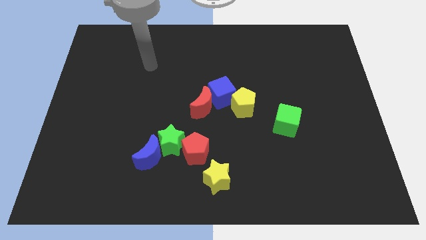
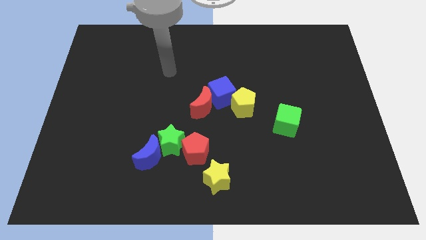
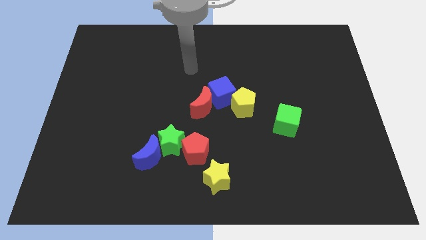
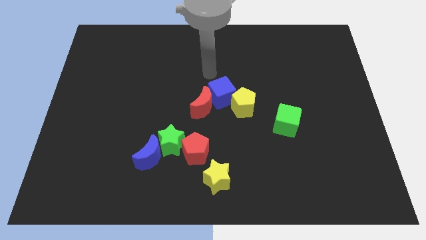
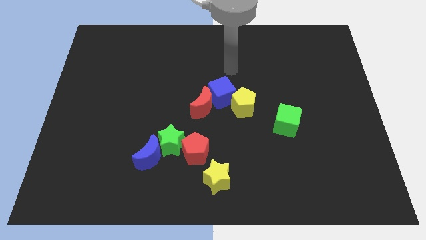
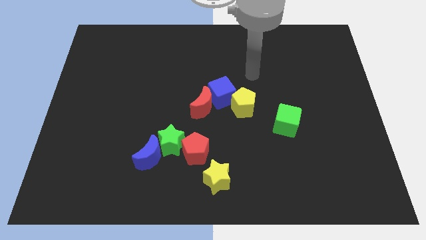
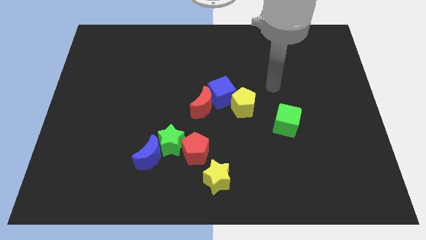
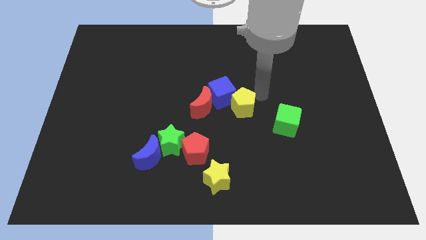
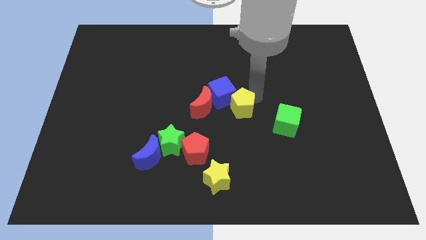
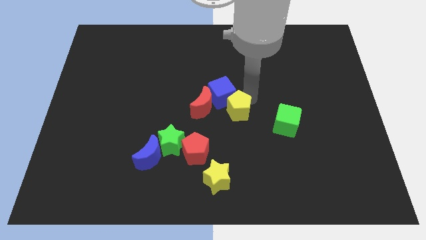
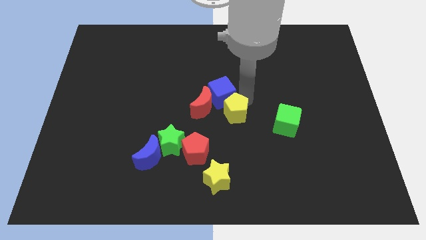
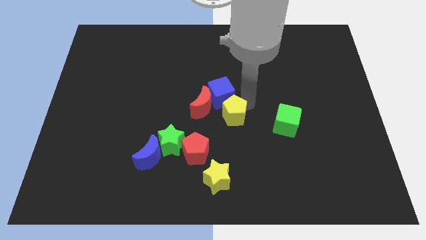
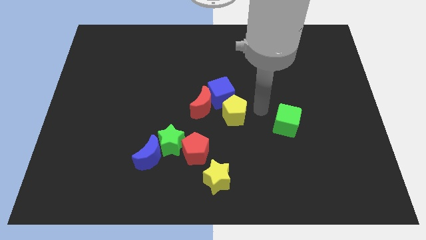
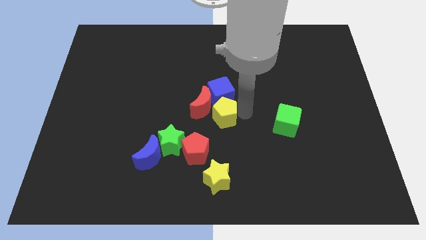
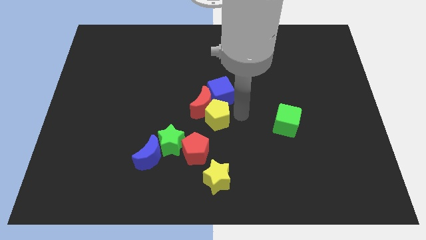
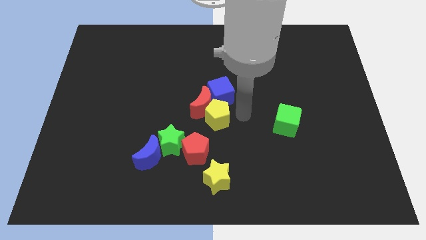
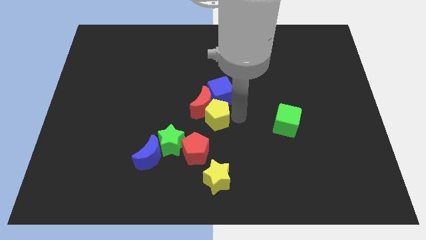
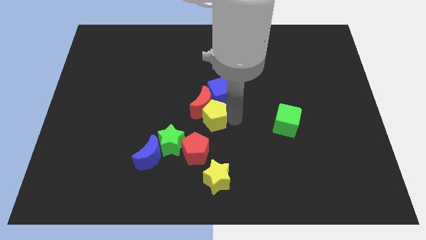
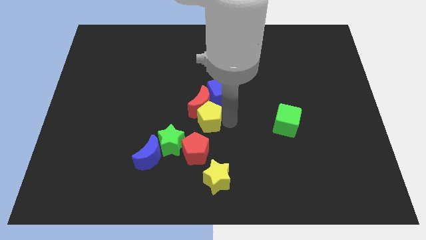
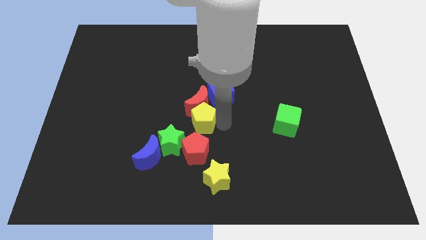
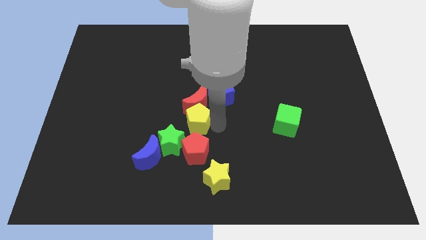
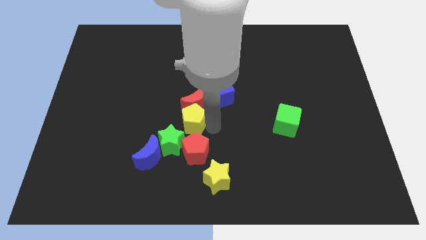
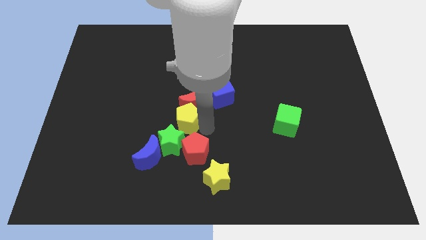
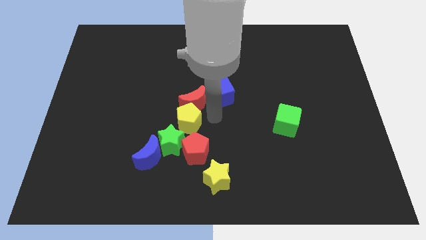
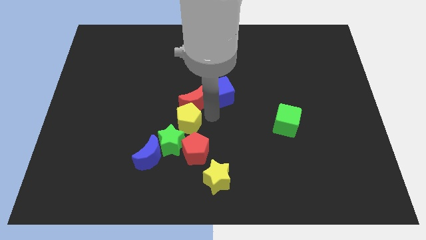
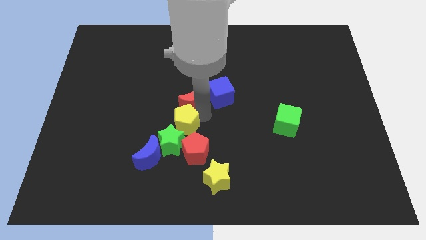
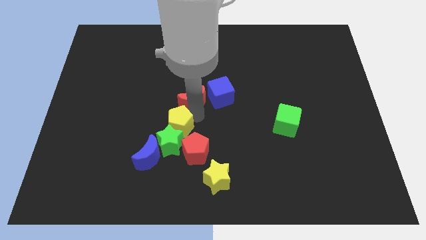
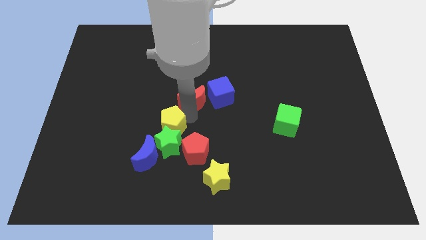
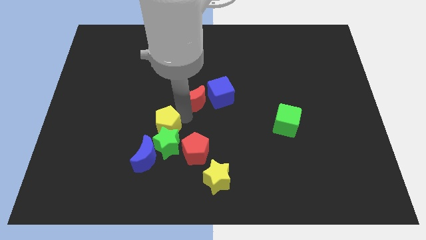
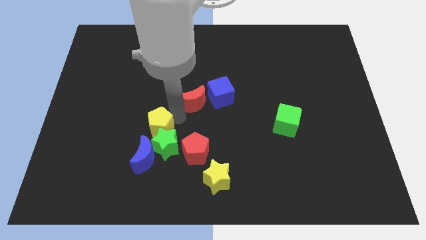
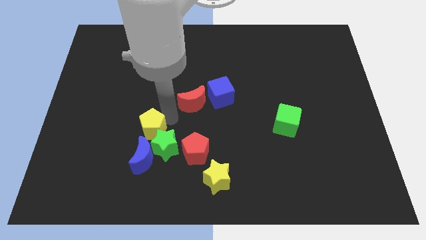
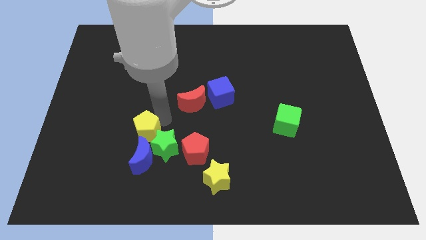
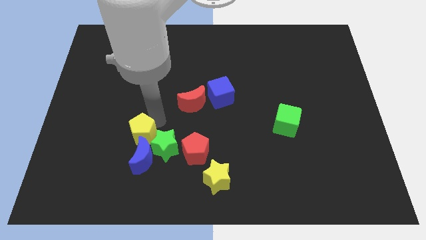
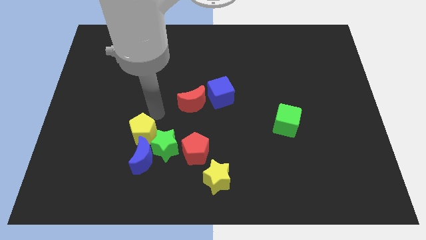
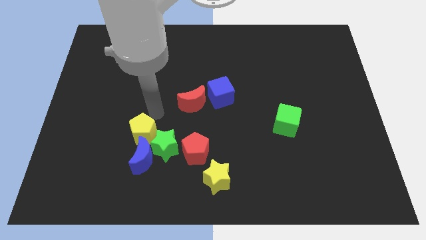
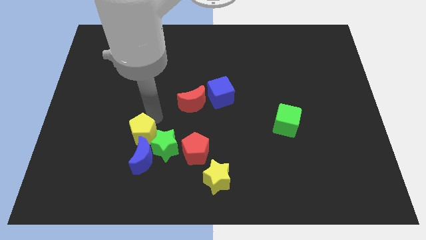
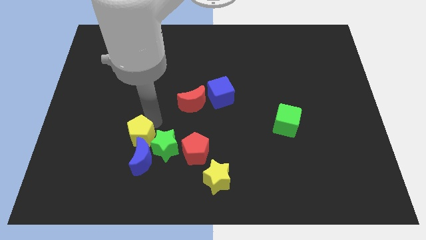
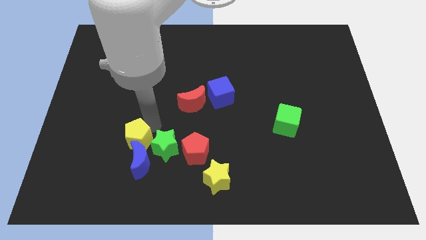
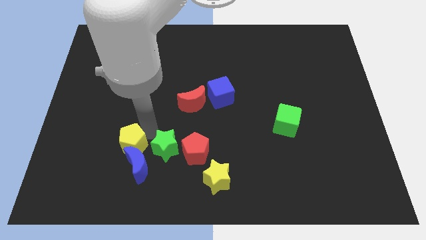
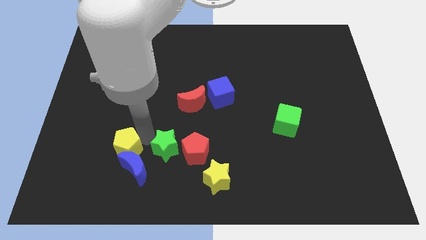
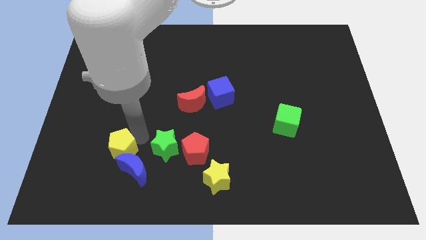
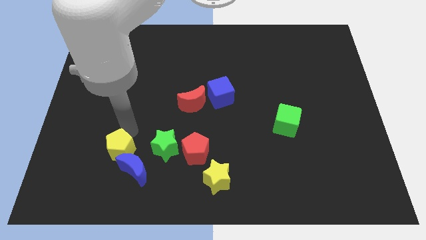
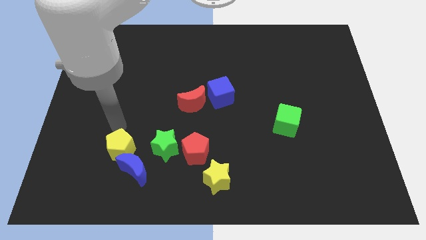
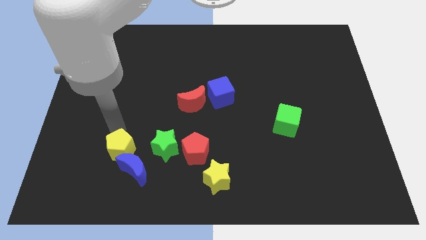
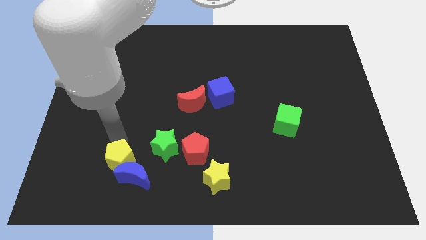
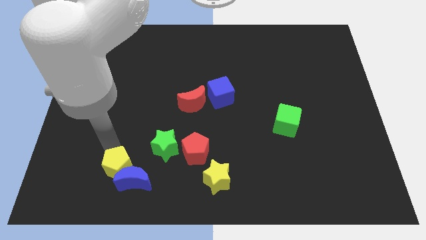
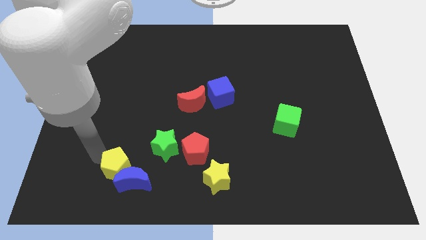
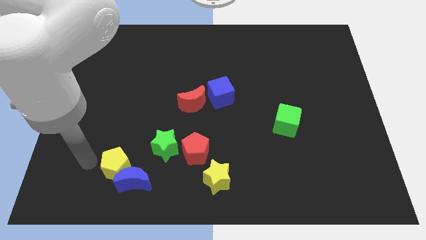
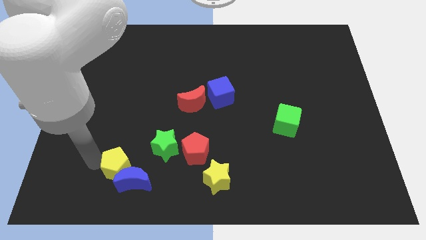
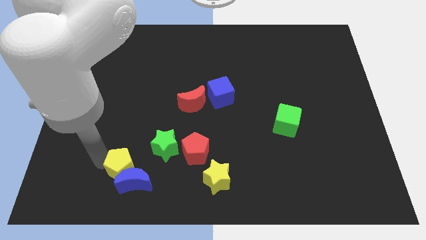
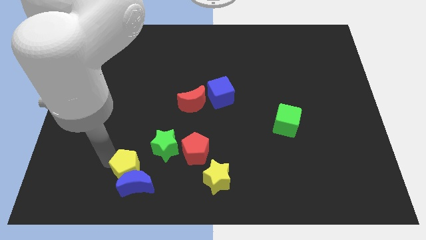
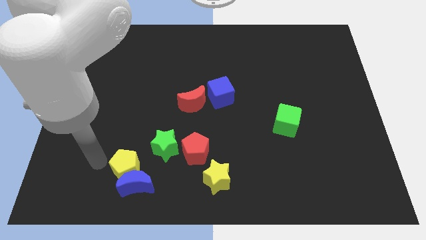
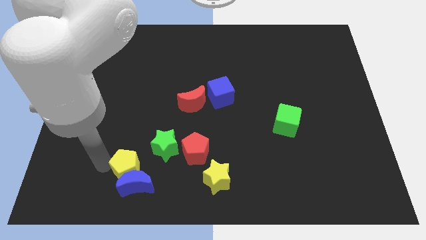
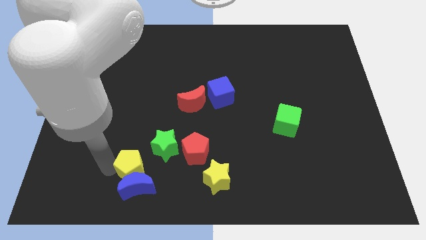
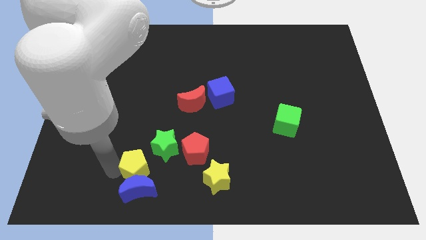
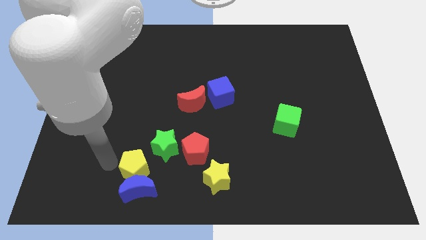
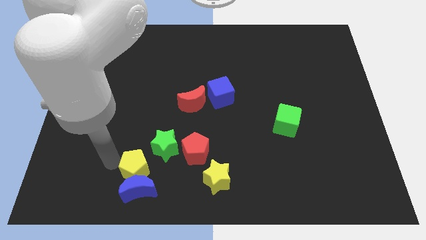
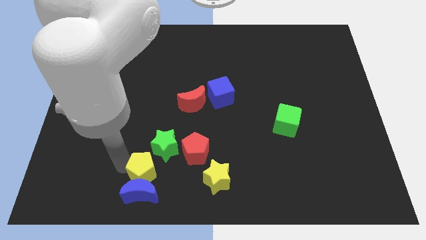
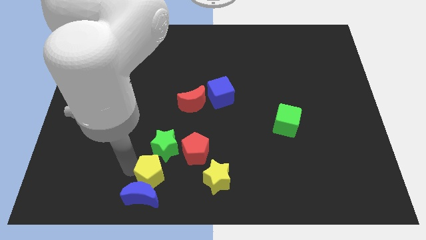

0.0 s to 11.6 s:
put the yellow pentagon diagonally down and to the left of the red pentagon
